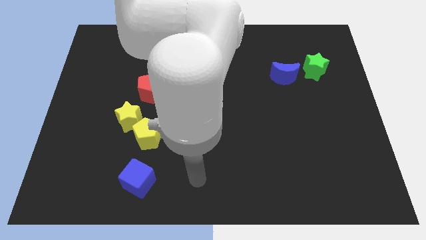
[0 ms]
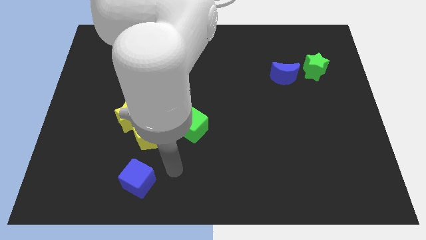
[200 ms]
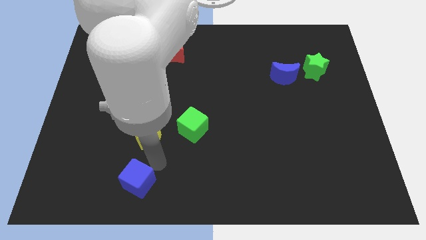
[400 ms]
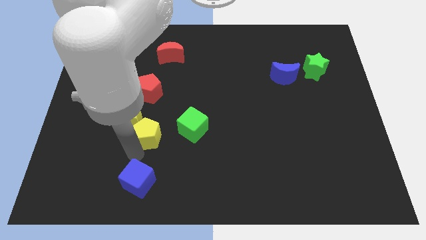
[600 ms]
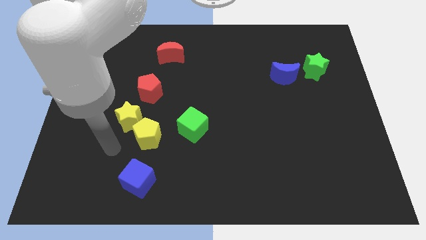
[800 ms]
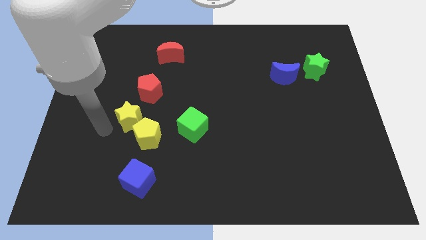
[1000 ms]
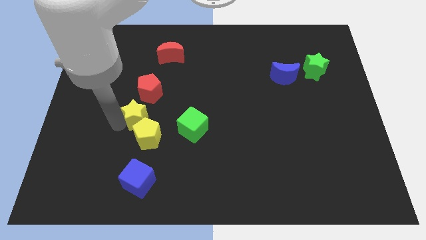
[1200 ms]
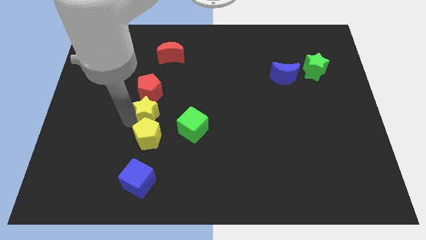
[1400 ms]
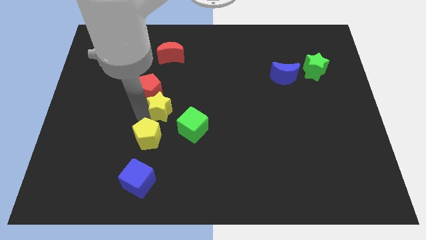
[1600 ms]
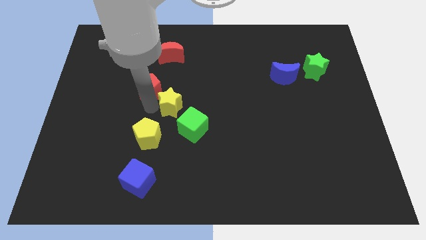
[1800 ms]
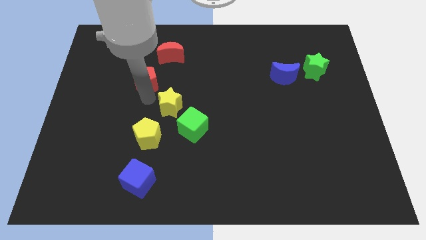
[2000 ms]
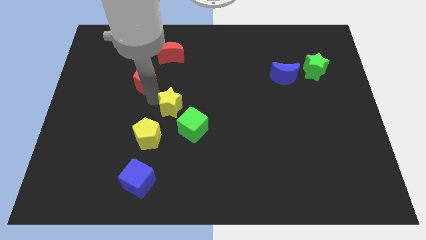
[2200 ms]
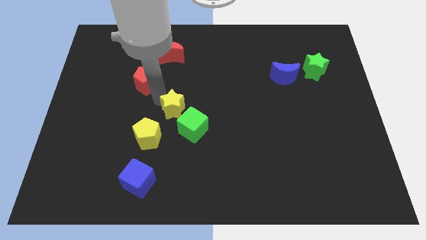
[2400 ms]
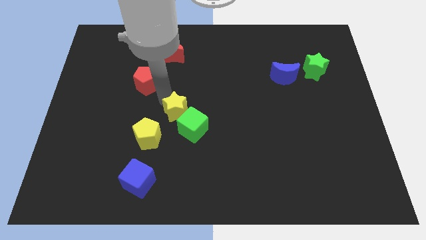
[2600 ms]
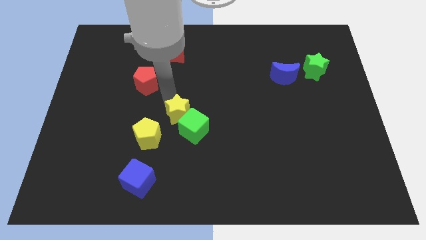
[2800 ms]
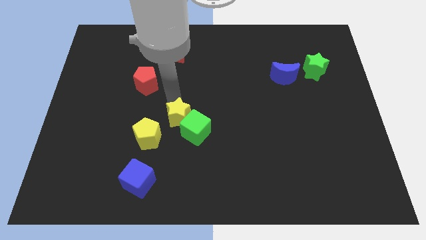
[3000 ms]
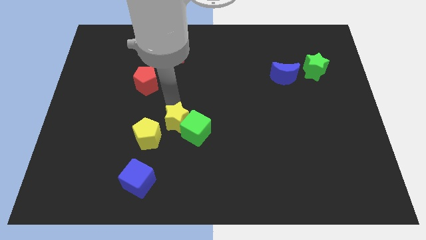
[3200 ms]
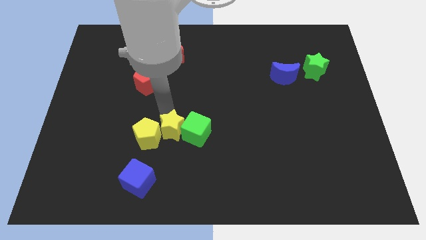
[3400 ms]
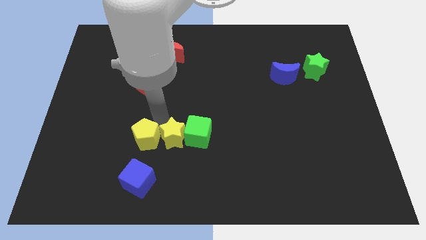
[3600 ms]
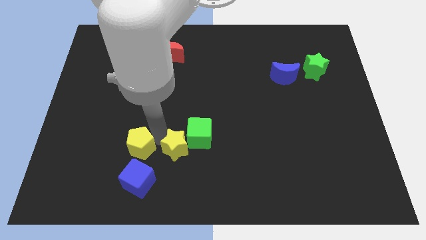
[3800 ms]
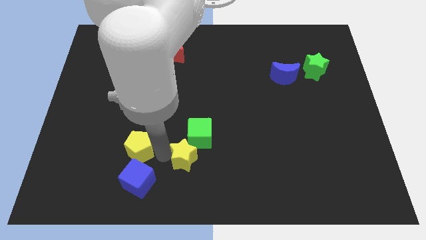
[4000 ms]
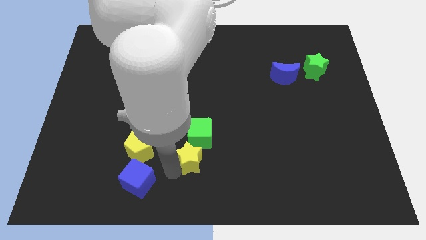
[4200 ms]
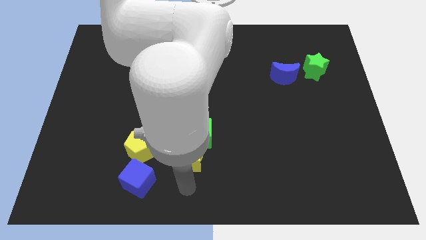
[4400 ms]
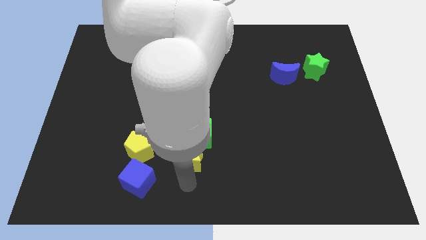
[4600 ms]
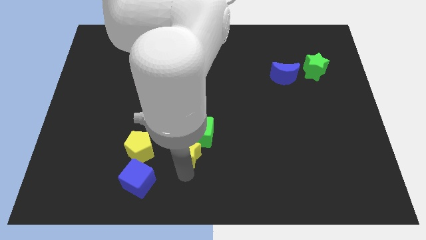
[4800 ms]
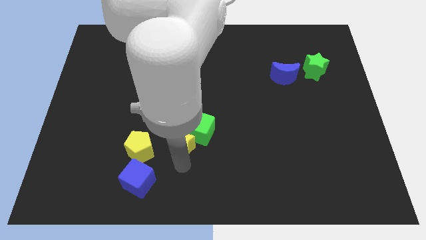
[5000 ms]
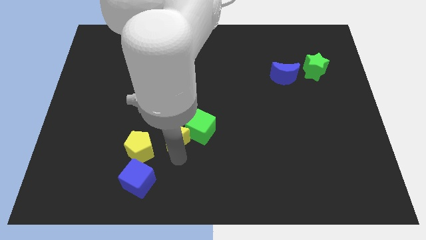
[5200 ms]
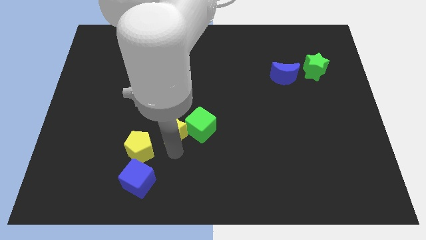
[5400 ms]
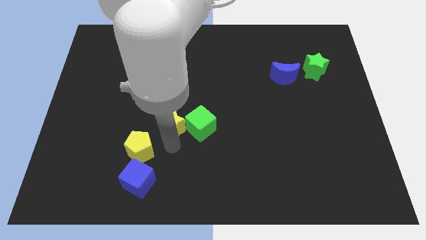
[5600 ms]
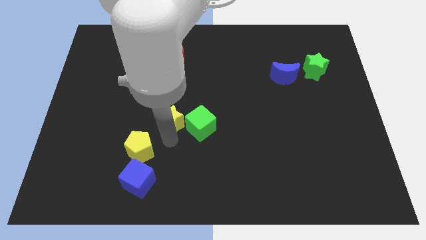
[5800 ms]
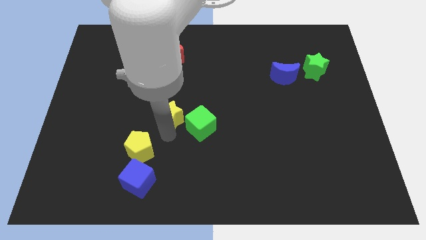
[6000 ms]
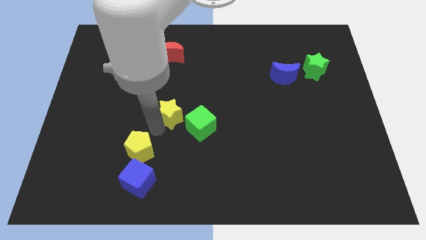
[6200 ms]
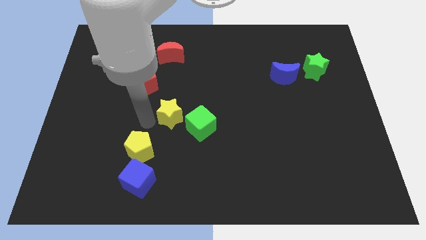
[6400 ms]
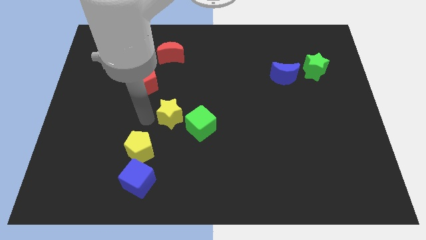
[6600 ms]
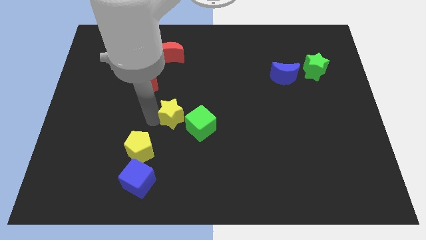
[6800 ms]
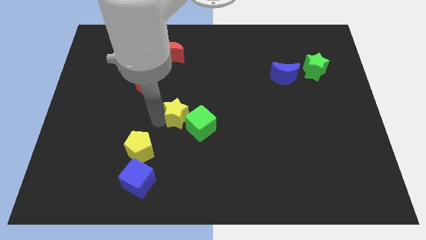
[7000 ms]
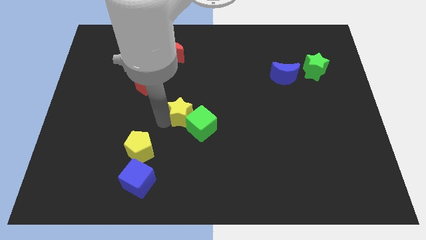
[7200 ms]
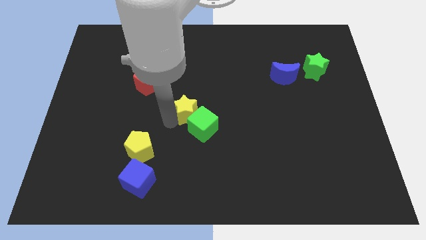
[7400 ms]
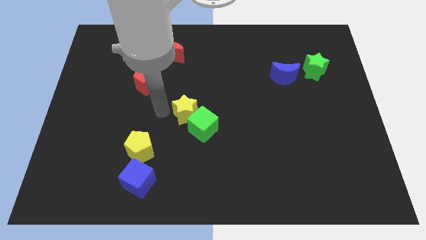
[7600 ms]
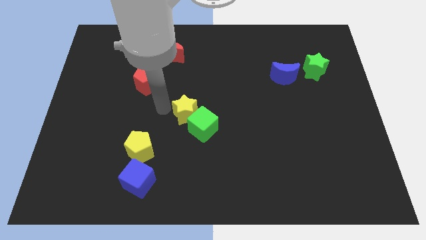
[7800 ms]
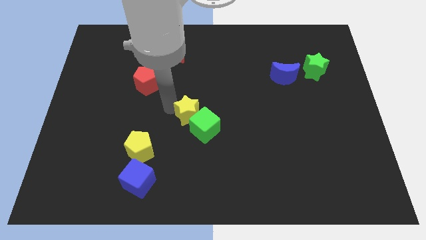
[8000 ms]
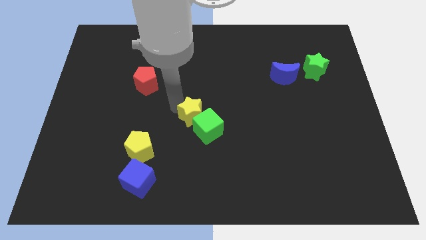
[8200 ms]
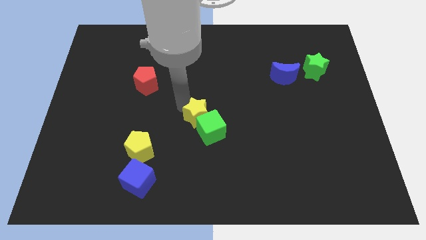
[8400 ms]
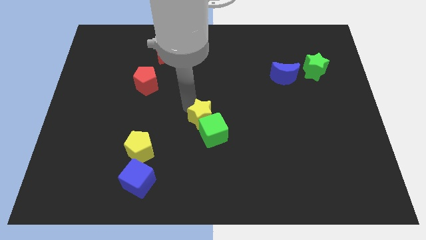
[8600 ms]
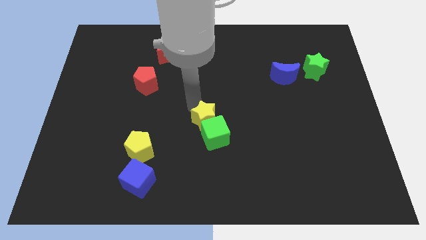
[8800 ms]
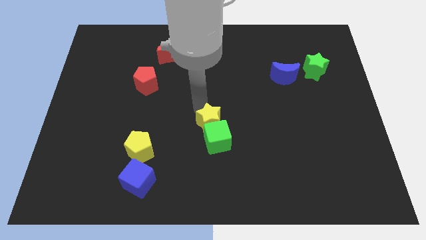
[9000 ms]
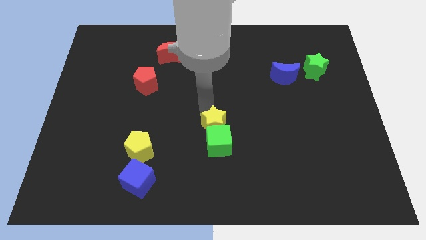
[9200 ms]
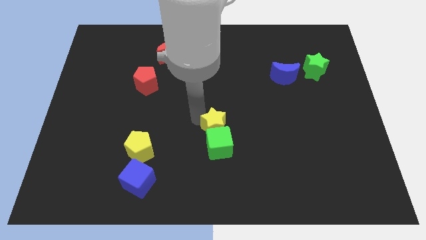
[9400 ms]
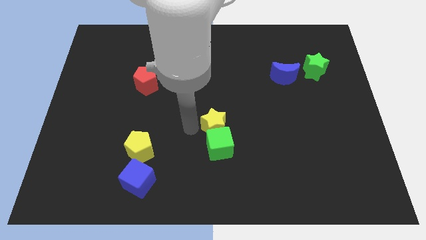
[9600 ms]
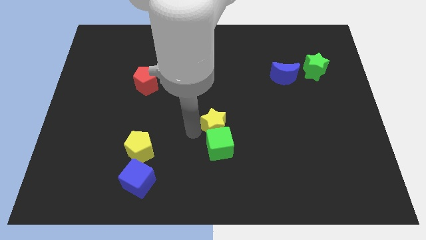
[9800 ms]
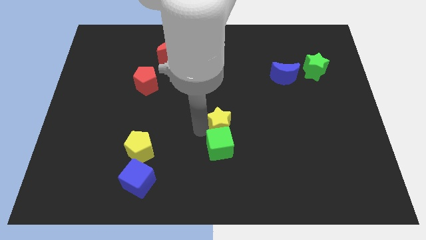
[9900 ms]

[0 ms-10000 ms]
move the yellow star right

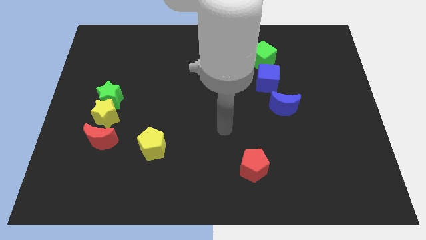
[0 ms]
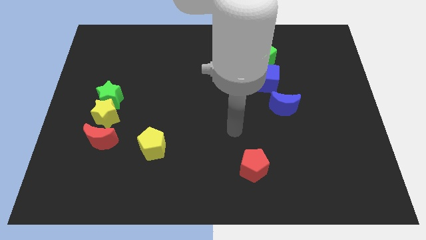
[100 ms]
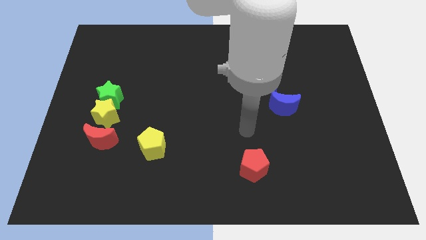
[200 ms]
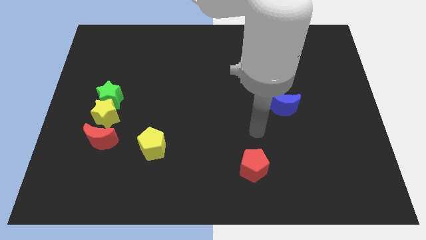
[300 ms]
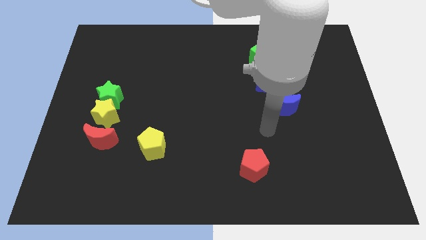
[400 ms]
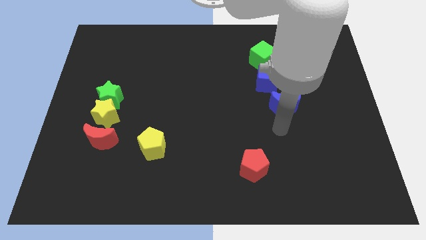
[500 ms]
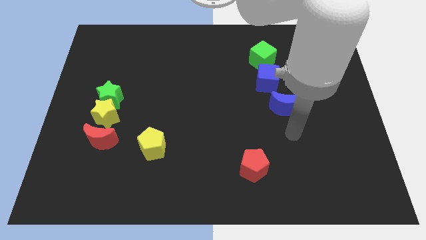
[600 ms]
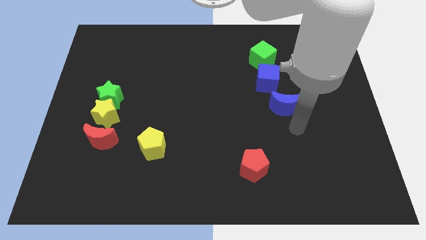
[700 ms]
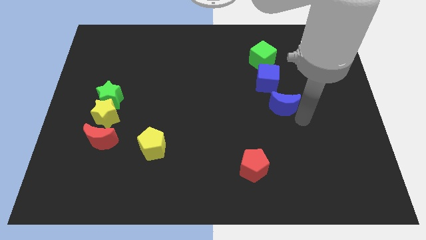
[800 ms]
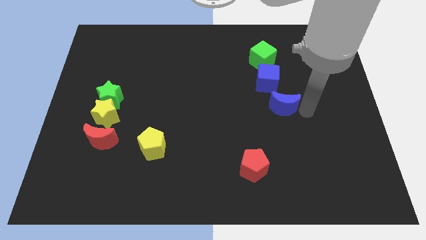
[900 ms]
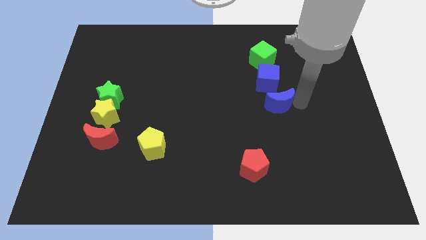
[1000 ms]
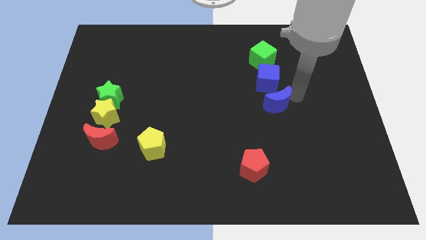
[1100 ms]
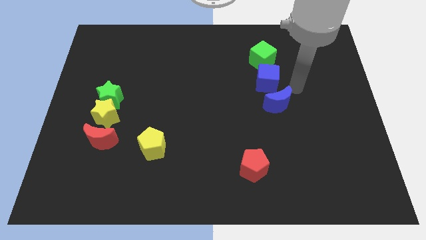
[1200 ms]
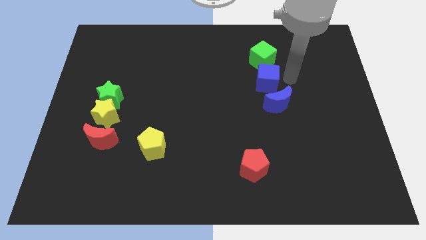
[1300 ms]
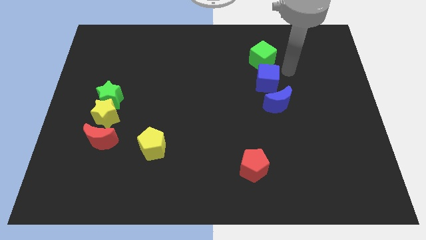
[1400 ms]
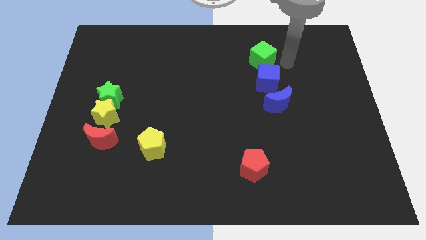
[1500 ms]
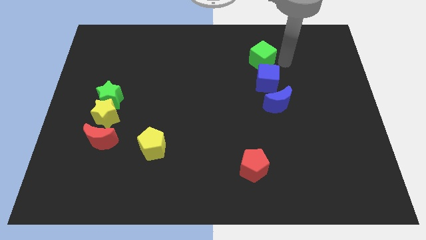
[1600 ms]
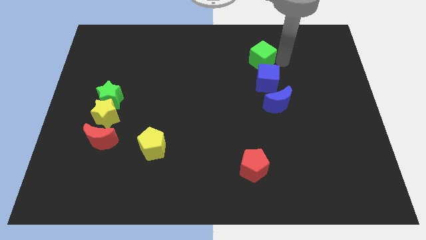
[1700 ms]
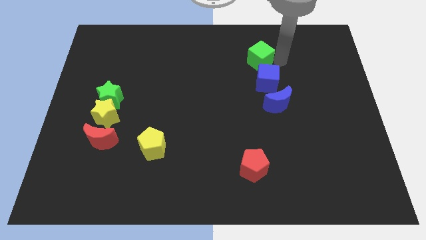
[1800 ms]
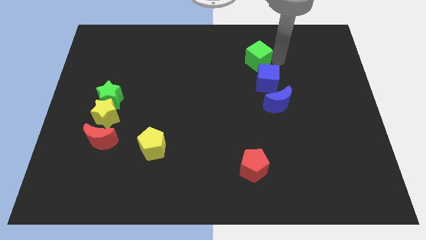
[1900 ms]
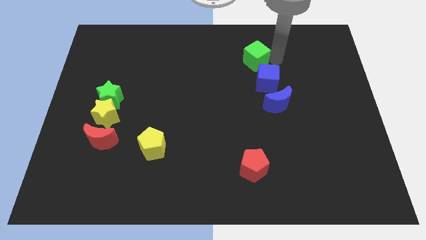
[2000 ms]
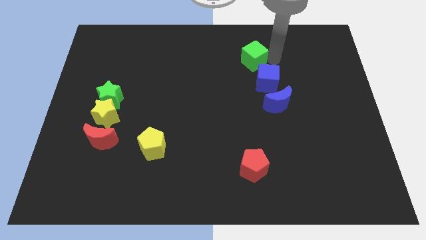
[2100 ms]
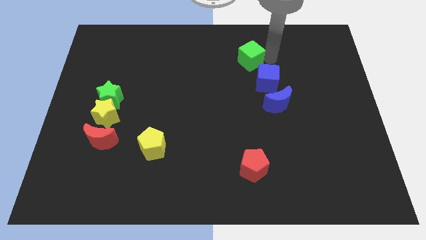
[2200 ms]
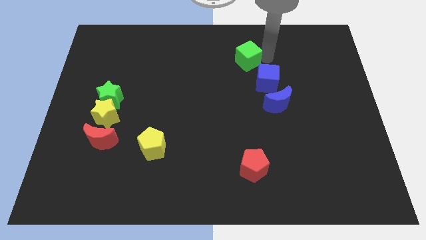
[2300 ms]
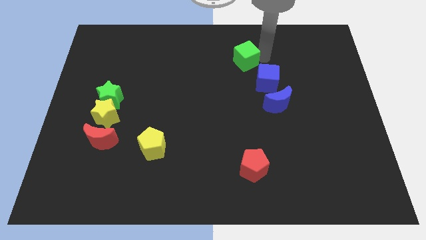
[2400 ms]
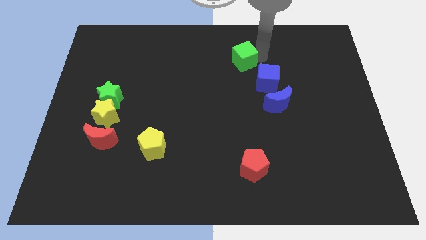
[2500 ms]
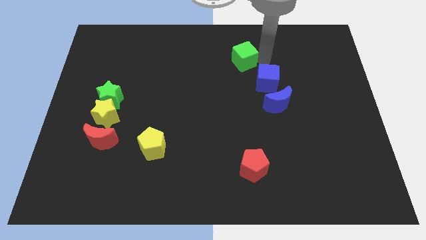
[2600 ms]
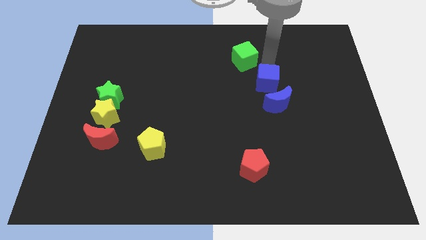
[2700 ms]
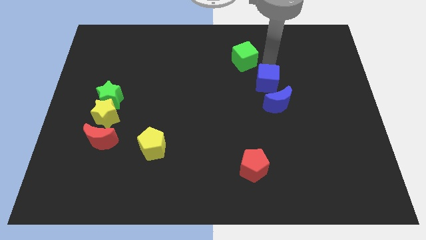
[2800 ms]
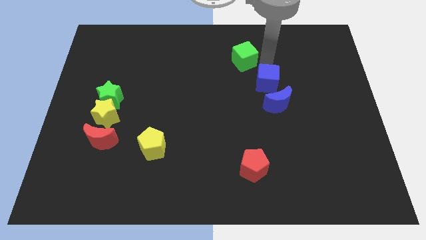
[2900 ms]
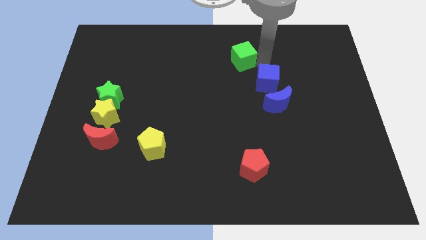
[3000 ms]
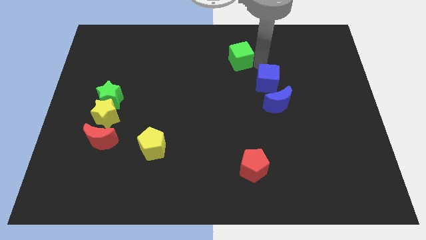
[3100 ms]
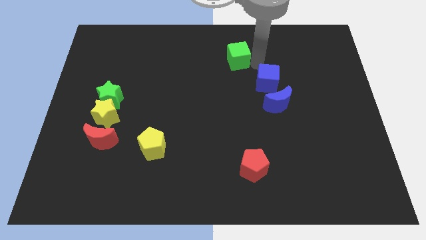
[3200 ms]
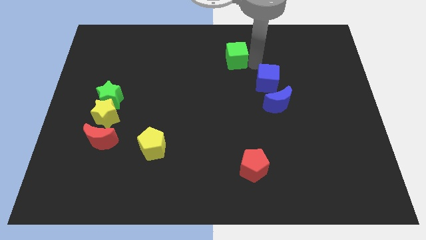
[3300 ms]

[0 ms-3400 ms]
slide the green cube to the left slightly
